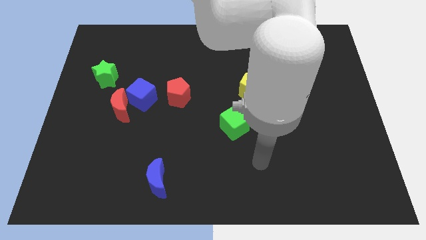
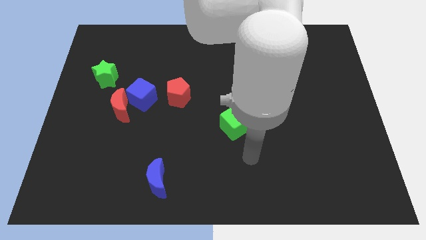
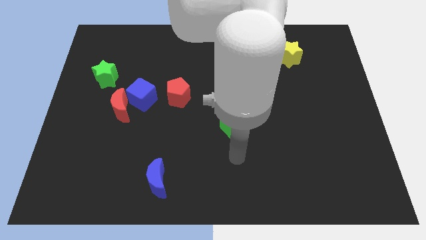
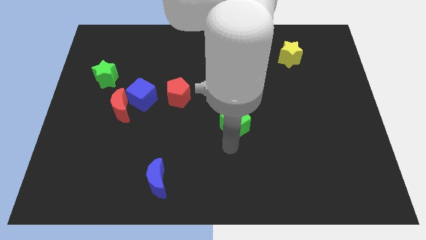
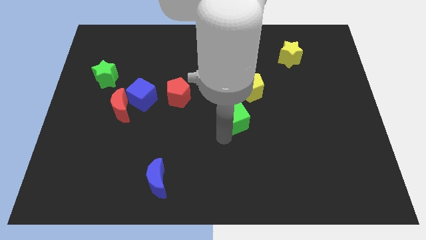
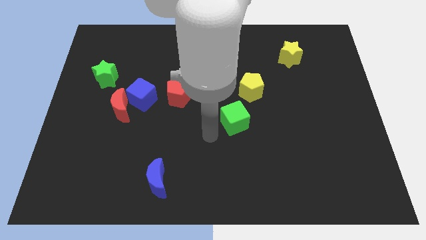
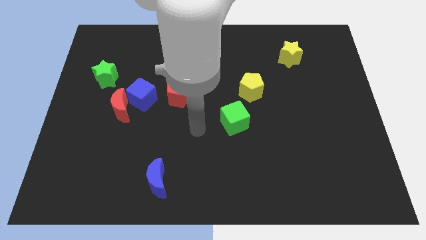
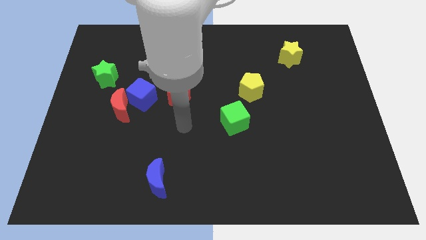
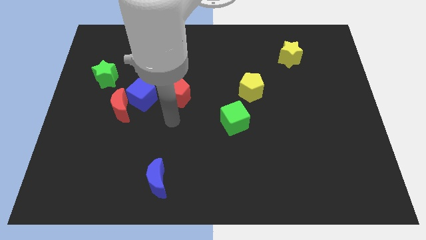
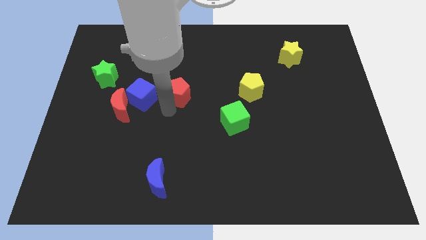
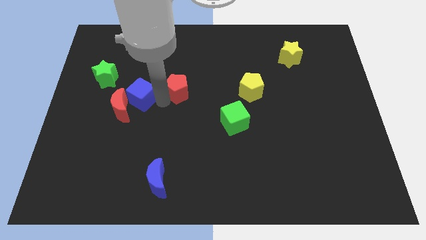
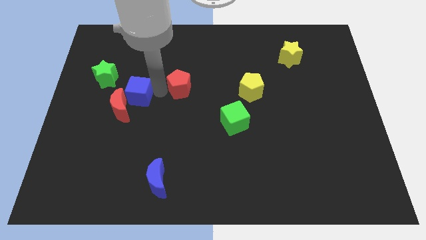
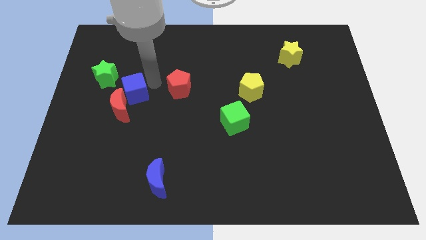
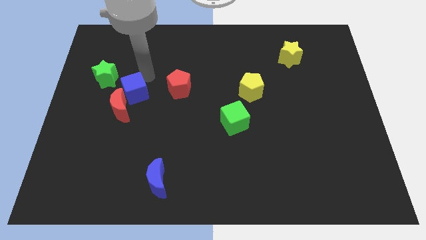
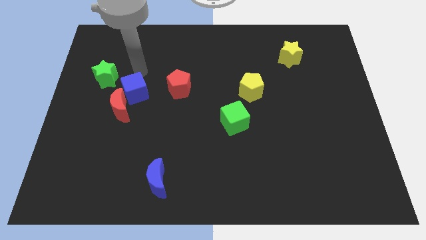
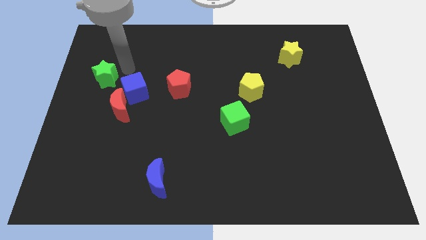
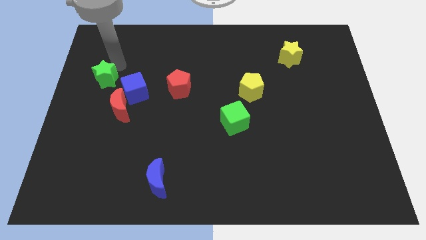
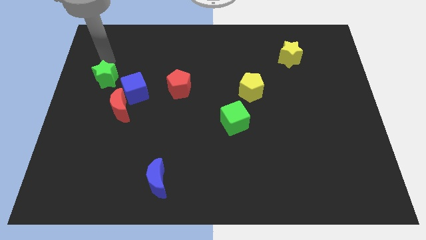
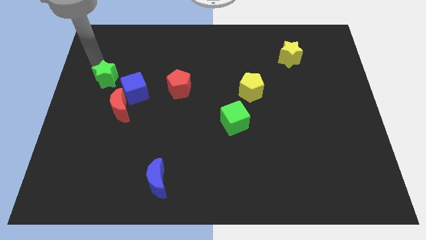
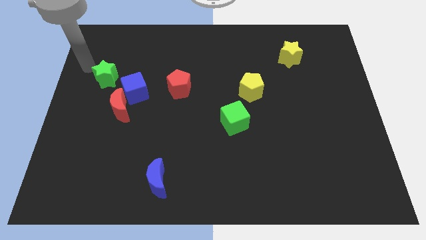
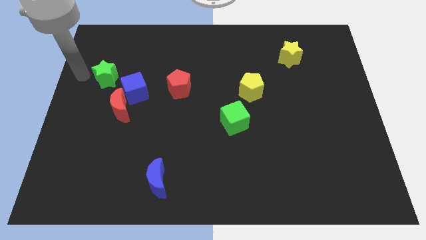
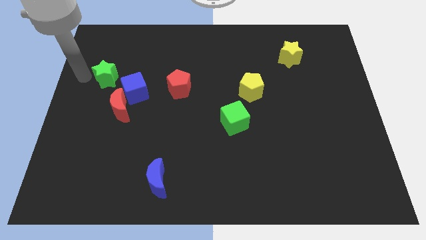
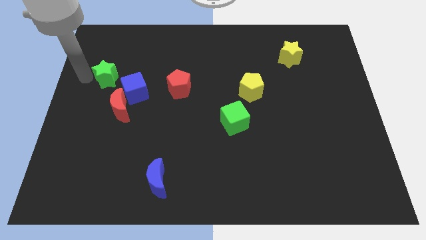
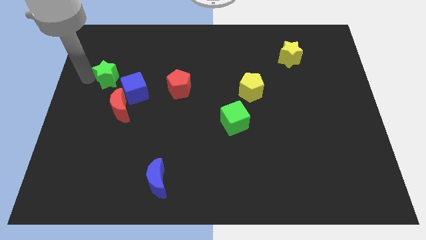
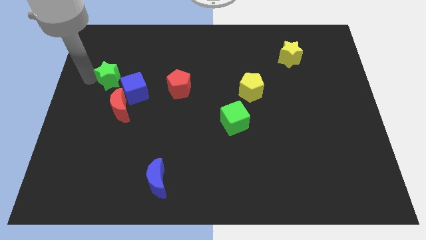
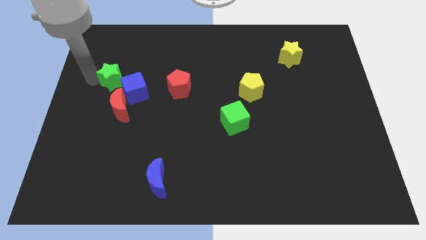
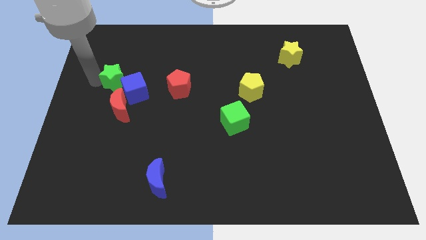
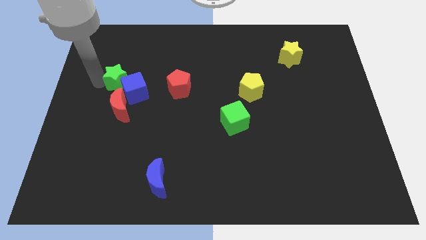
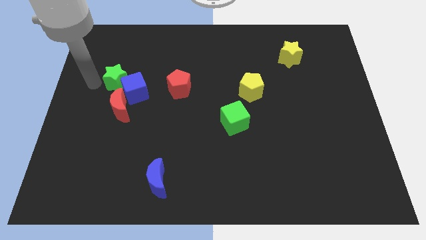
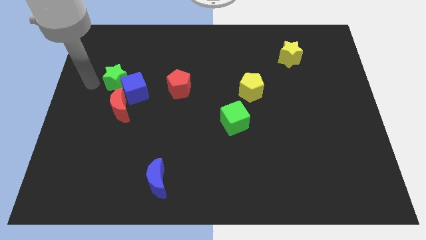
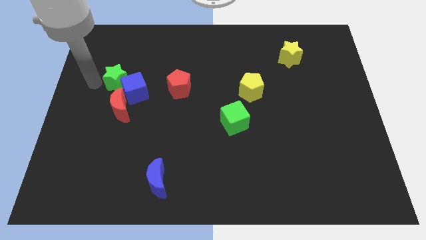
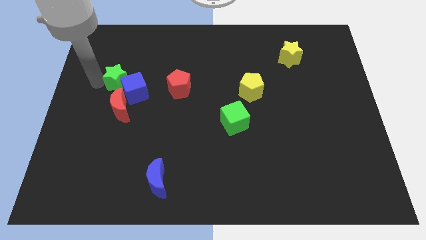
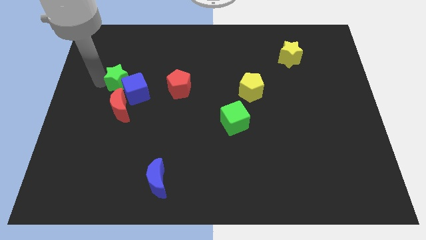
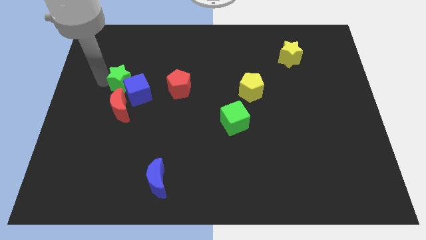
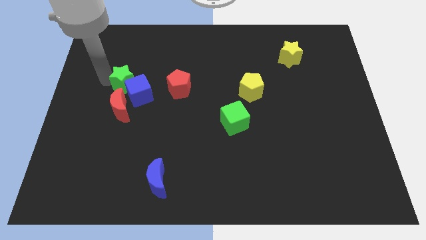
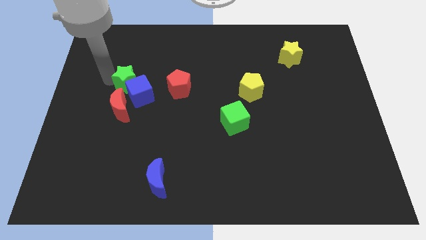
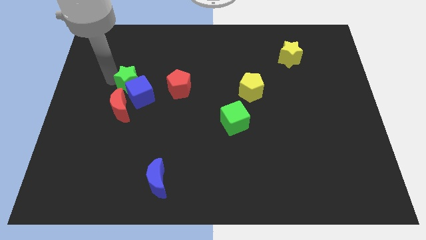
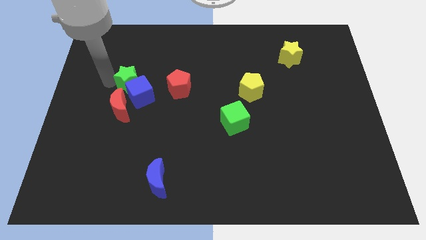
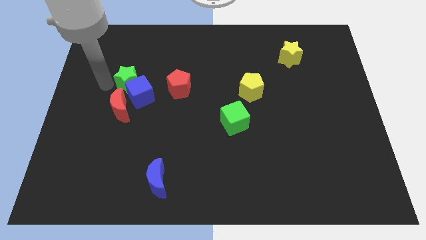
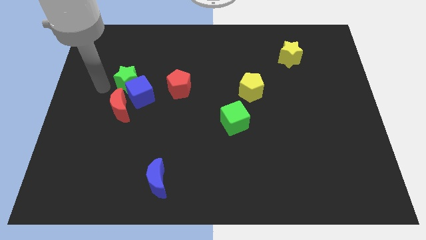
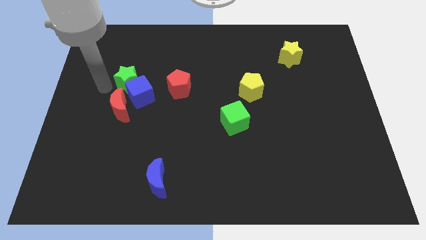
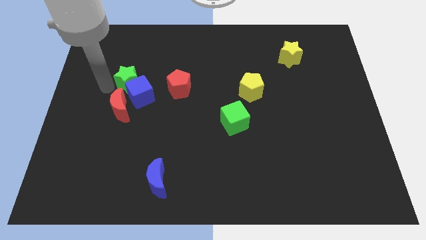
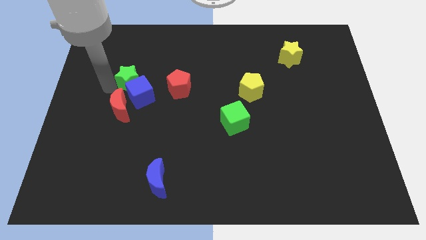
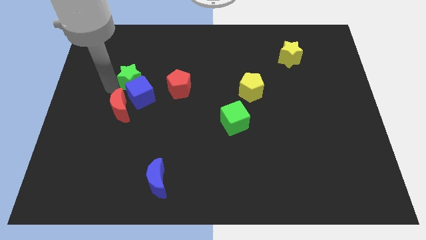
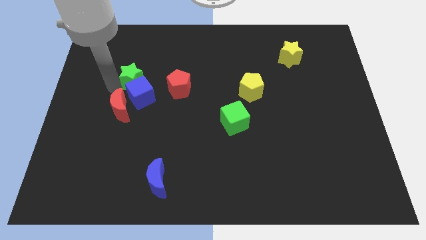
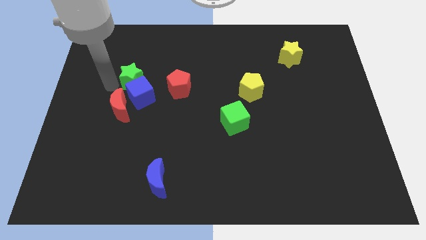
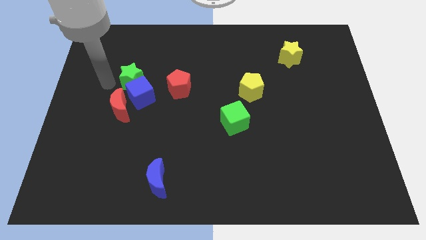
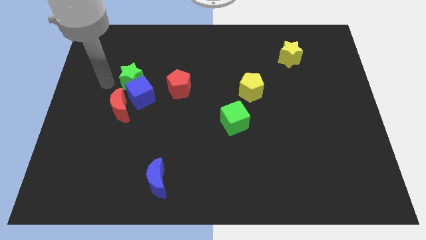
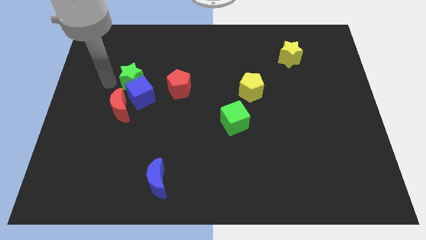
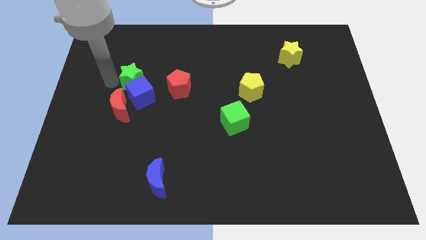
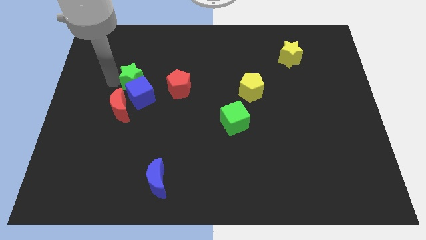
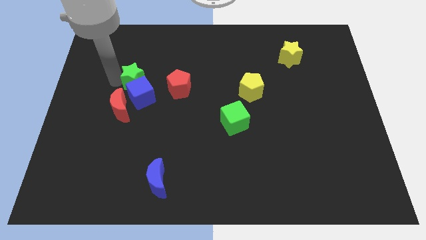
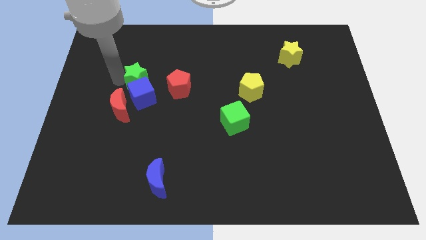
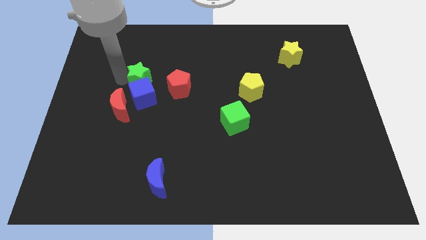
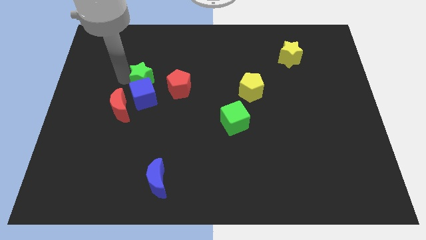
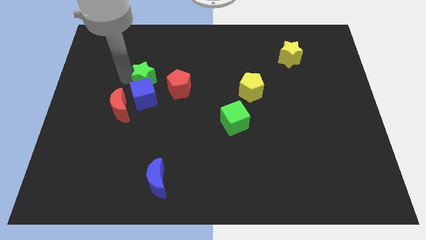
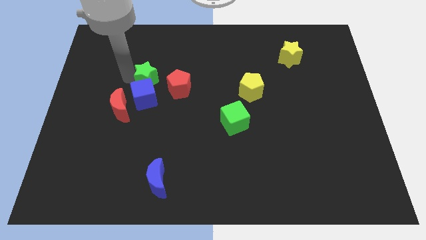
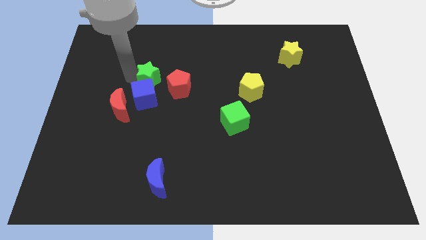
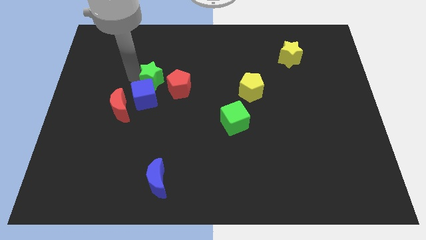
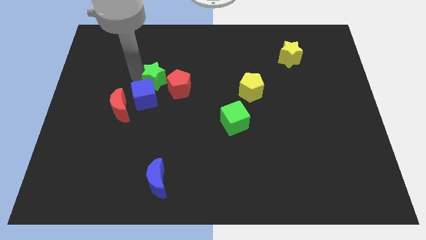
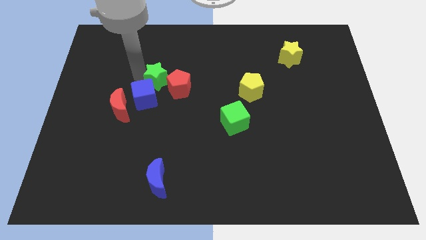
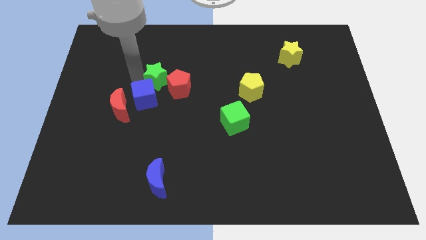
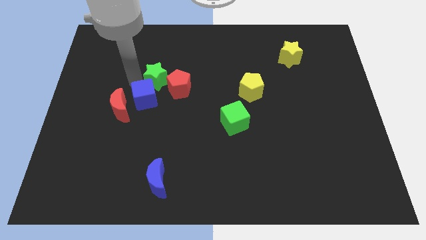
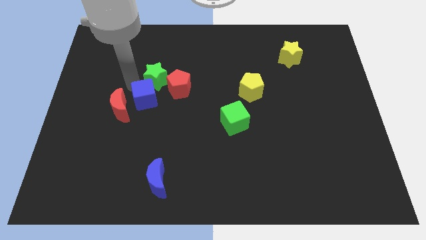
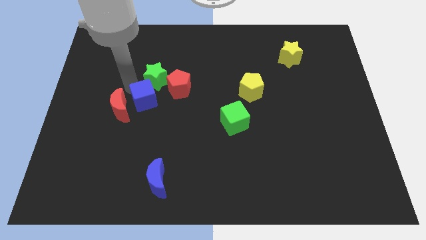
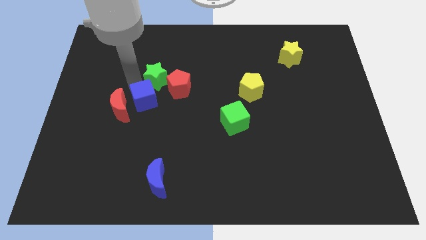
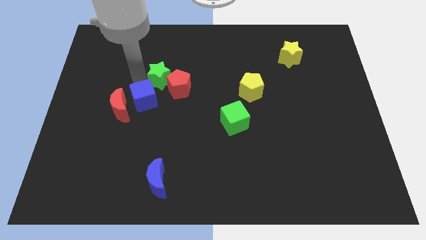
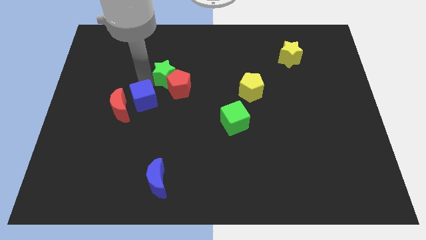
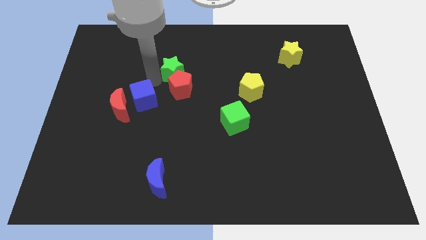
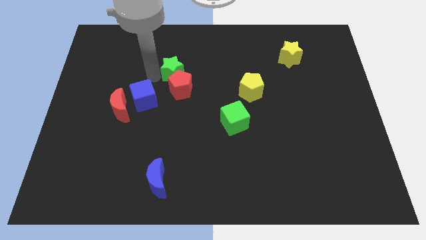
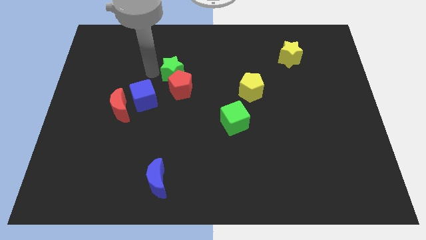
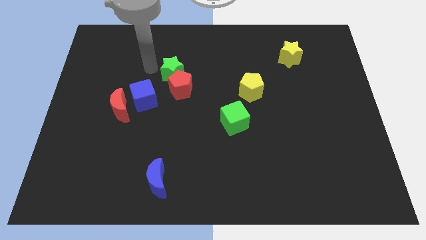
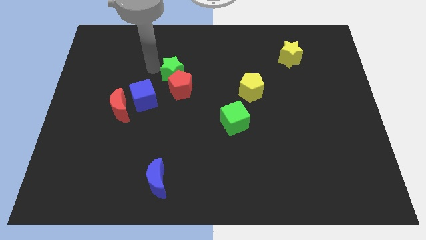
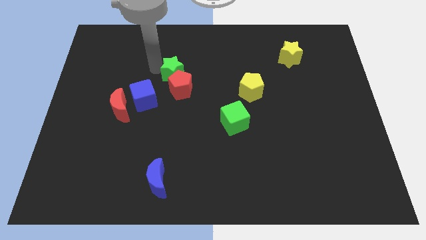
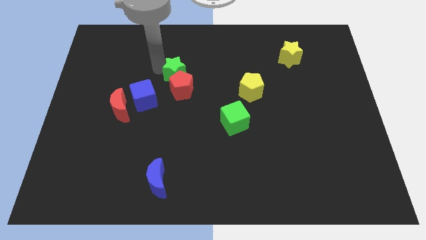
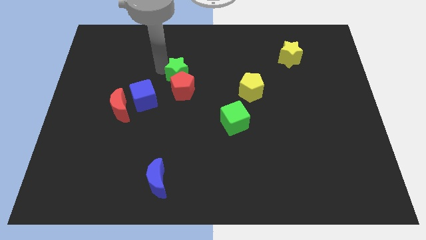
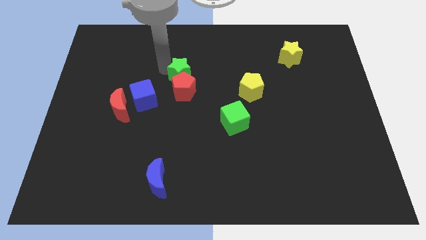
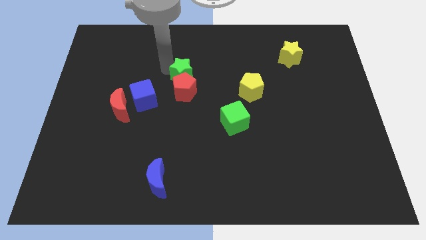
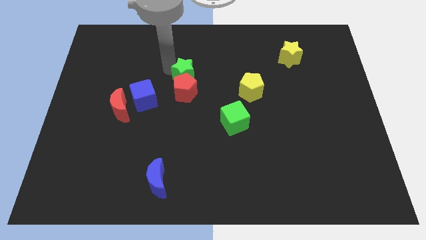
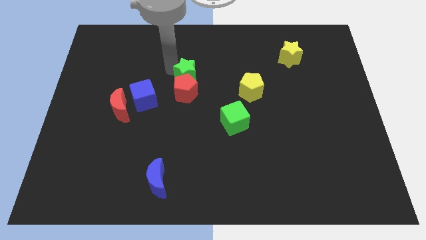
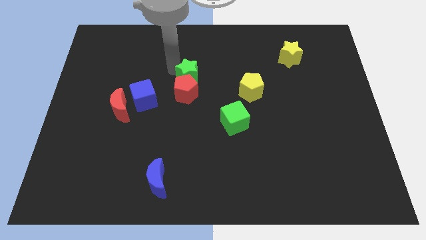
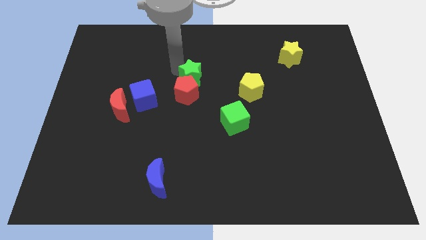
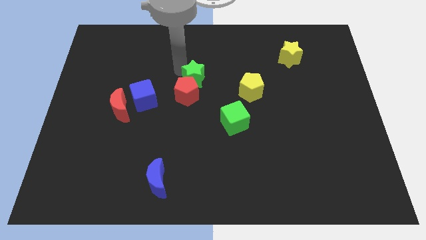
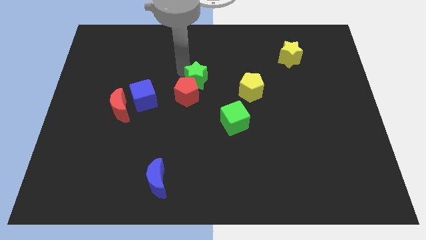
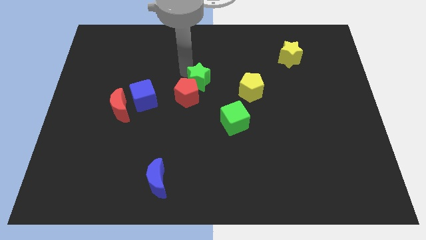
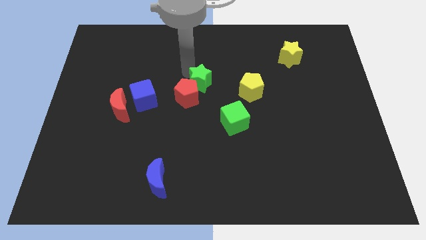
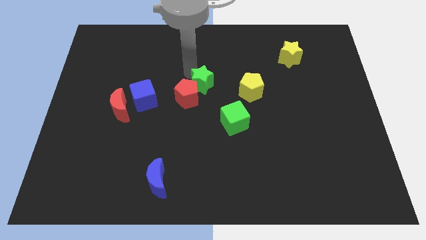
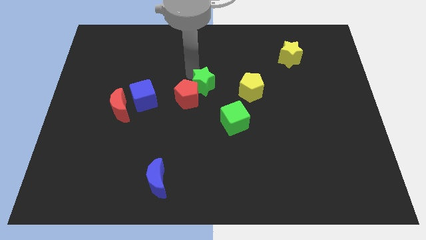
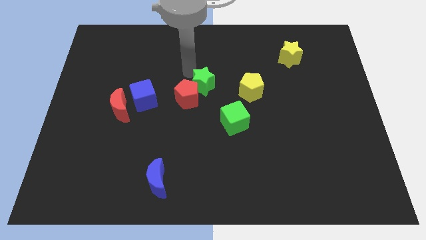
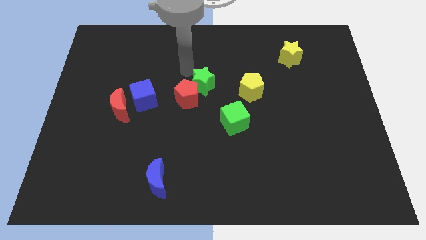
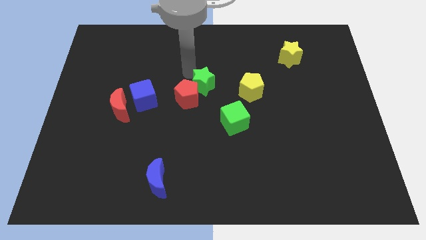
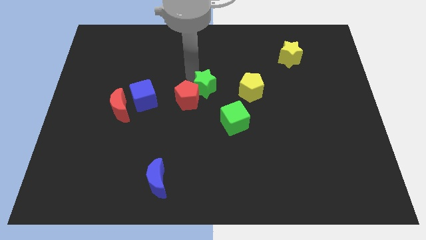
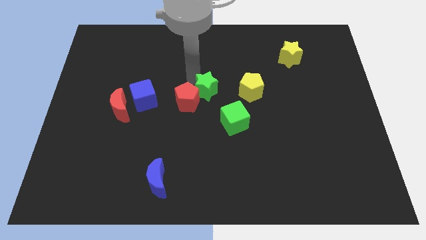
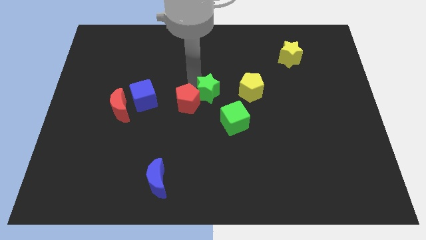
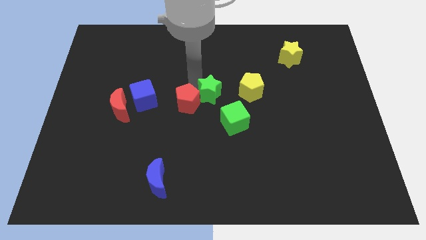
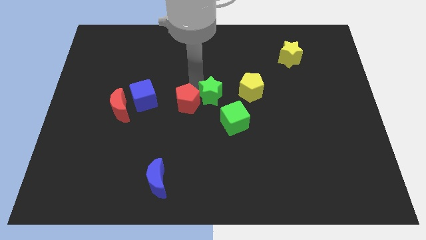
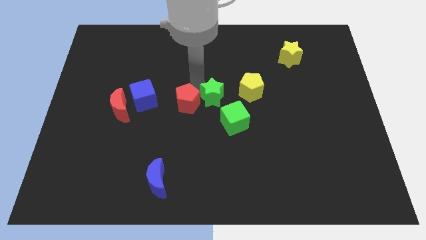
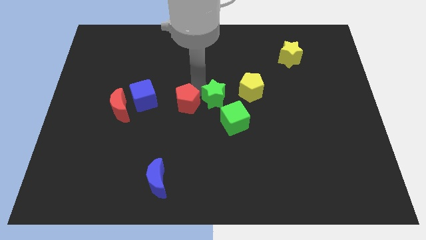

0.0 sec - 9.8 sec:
slide the green star diagonally down and to the left of the yellow pentagon
